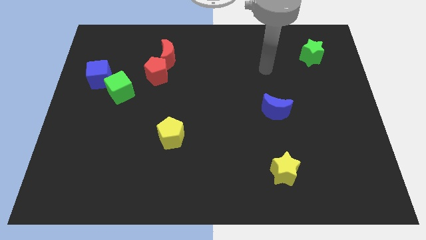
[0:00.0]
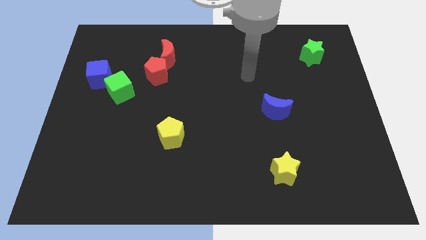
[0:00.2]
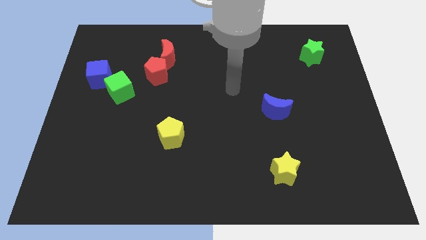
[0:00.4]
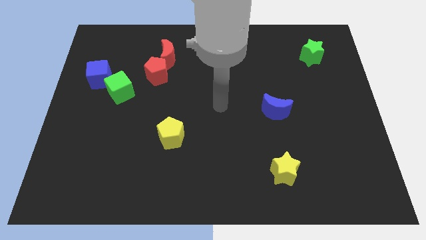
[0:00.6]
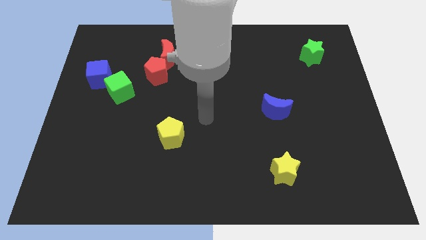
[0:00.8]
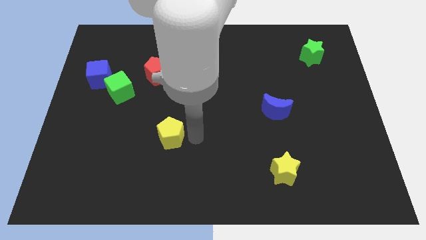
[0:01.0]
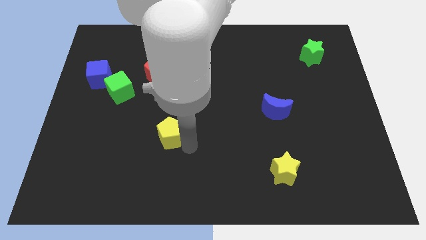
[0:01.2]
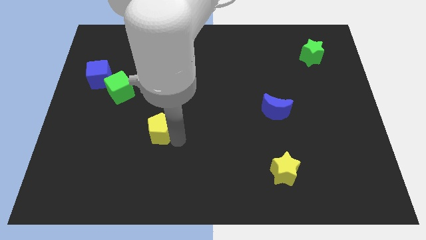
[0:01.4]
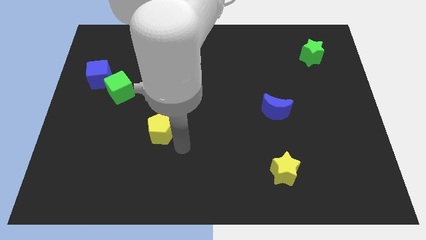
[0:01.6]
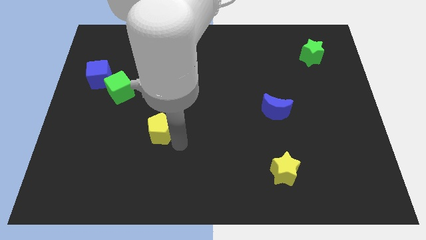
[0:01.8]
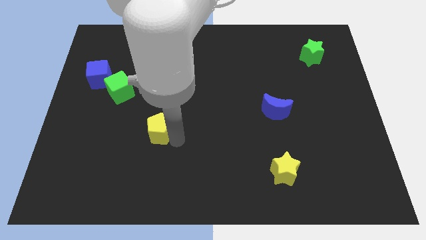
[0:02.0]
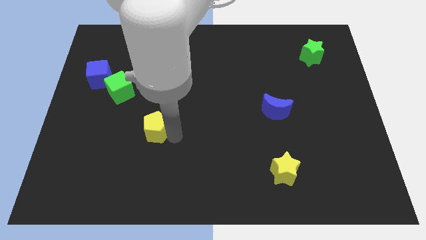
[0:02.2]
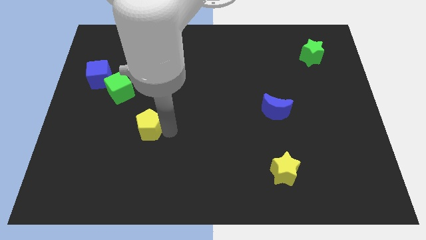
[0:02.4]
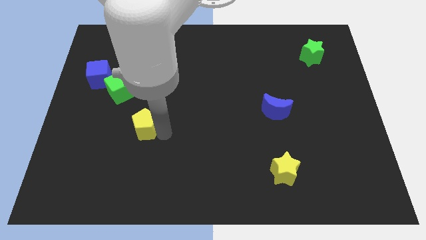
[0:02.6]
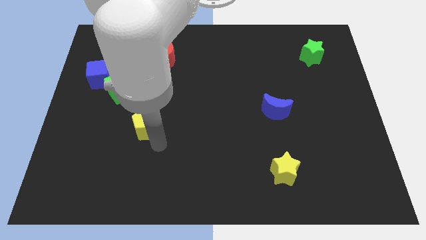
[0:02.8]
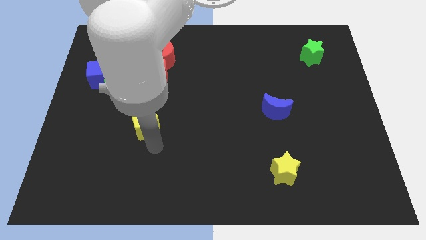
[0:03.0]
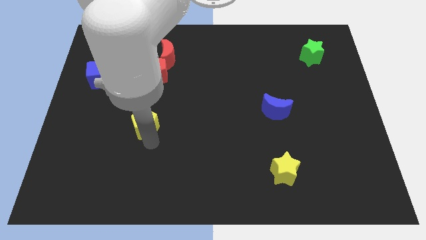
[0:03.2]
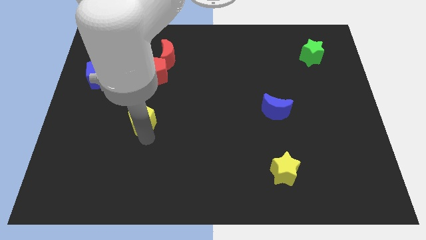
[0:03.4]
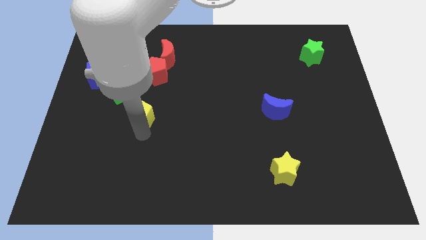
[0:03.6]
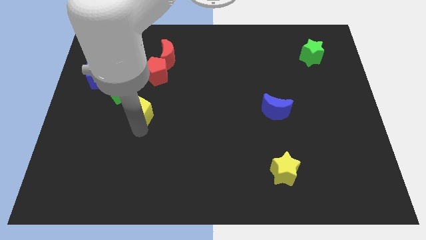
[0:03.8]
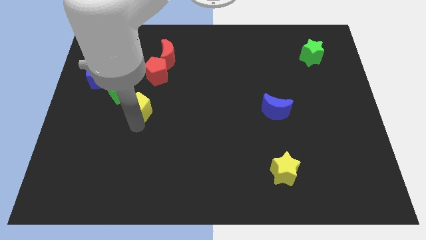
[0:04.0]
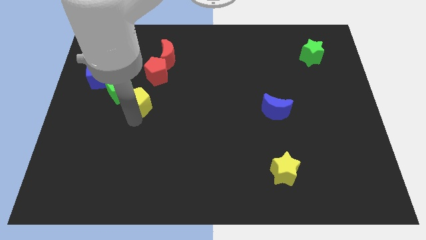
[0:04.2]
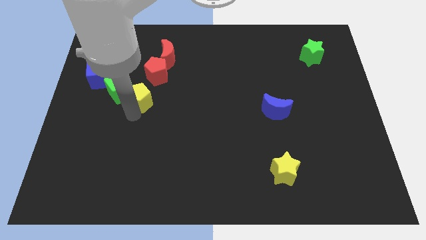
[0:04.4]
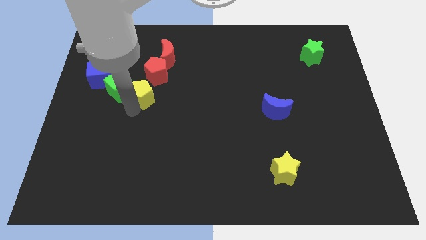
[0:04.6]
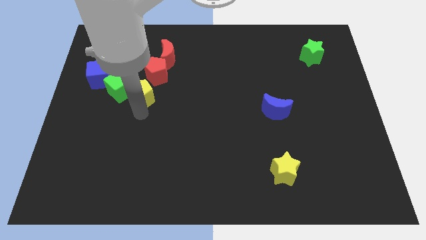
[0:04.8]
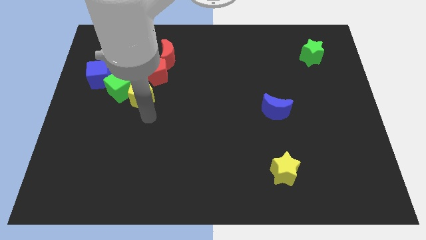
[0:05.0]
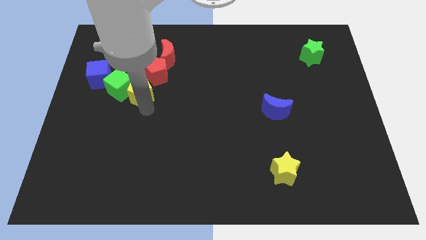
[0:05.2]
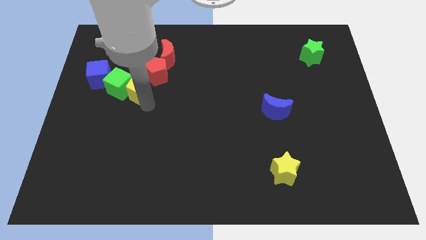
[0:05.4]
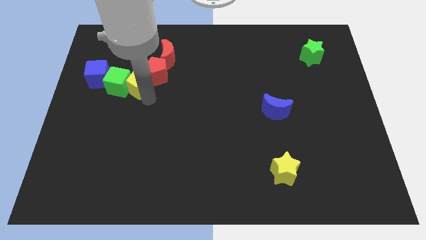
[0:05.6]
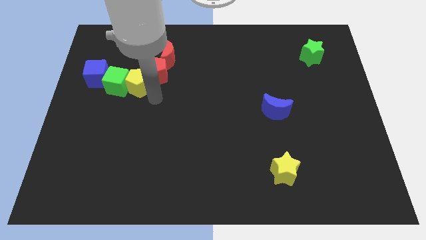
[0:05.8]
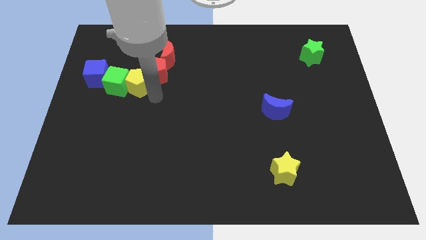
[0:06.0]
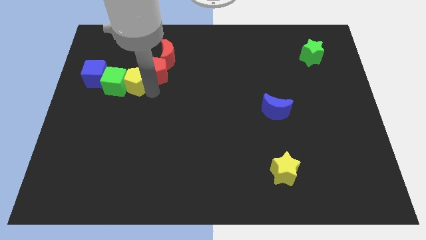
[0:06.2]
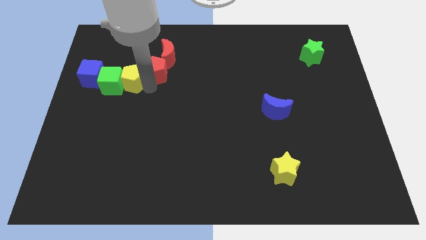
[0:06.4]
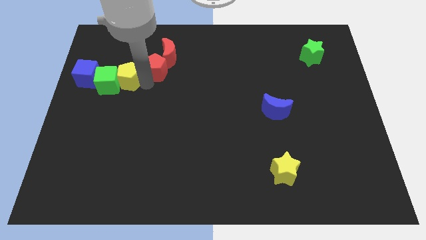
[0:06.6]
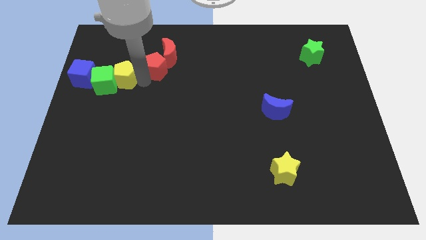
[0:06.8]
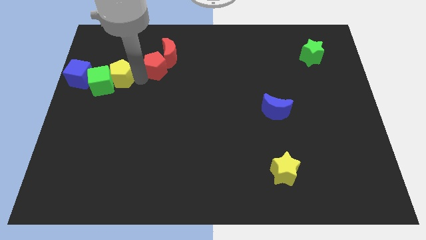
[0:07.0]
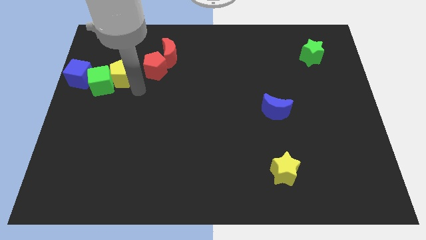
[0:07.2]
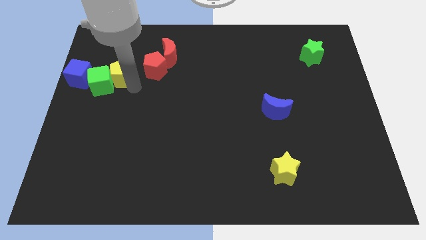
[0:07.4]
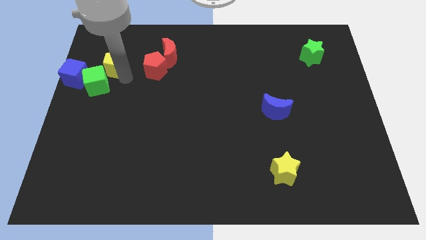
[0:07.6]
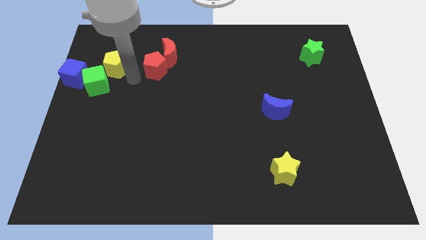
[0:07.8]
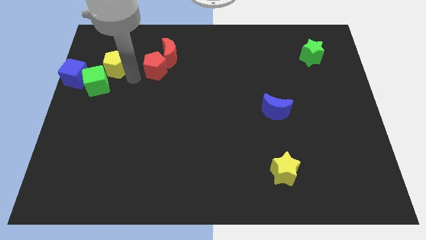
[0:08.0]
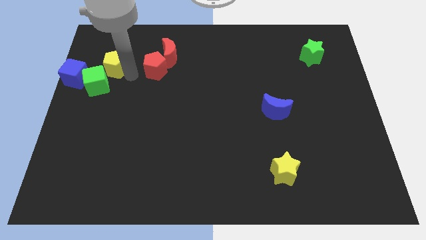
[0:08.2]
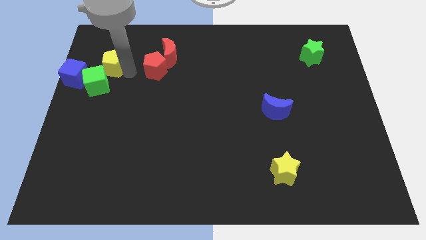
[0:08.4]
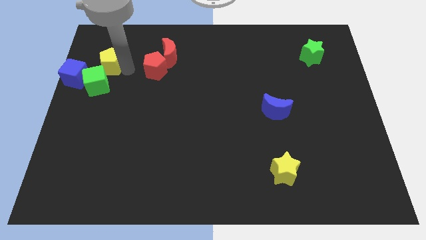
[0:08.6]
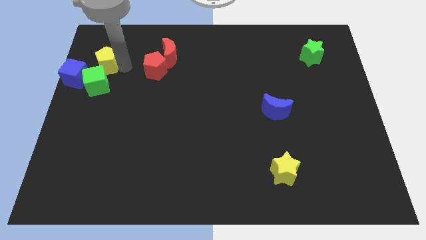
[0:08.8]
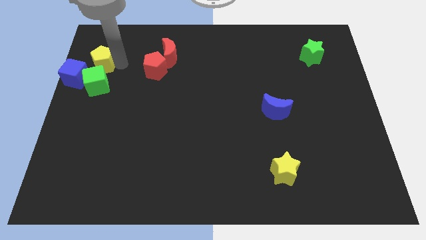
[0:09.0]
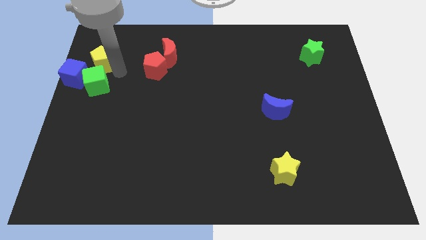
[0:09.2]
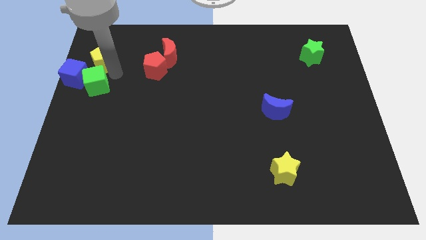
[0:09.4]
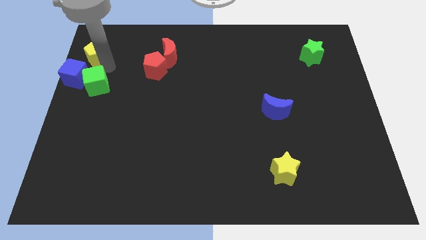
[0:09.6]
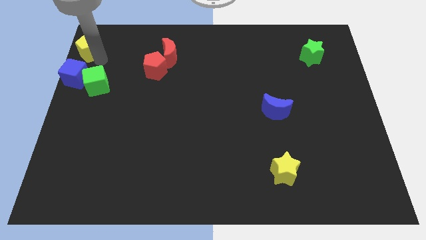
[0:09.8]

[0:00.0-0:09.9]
move the yellow pentagon to the top left of the board

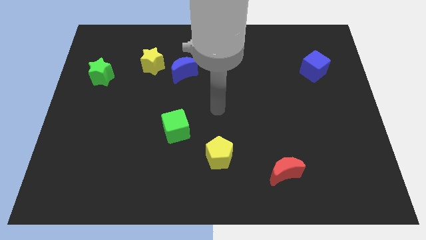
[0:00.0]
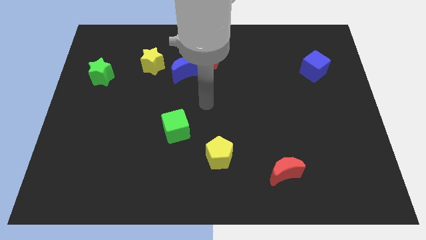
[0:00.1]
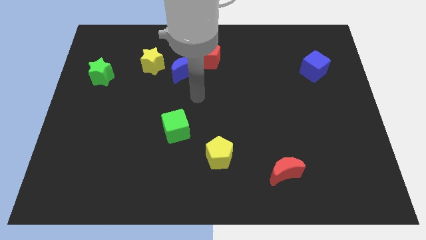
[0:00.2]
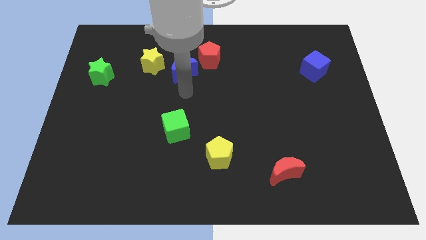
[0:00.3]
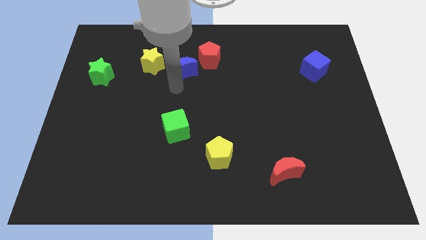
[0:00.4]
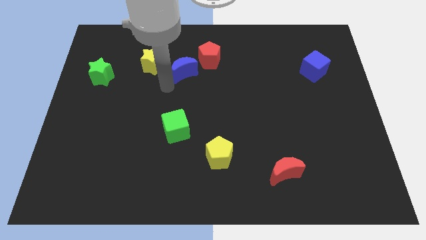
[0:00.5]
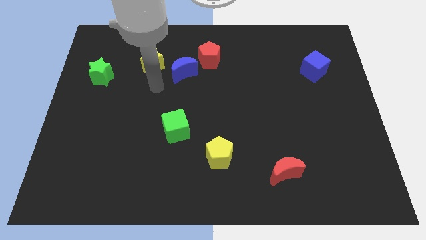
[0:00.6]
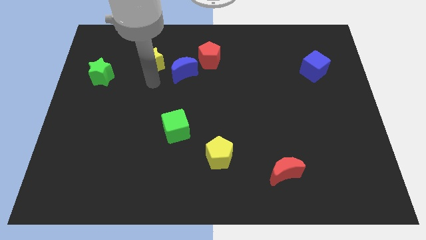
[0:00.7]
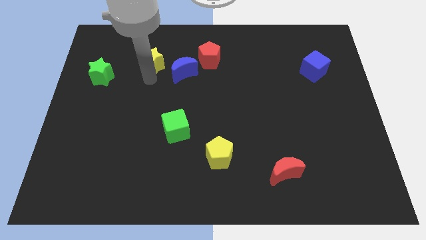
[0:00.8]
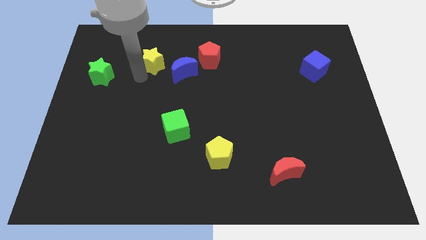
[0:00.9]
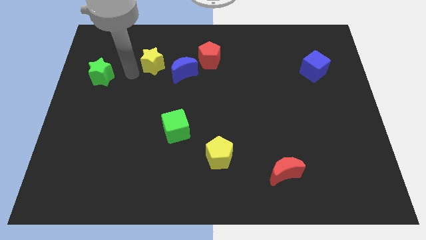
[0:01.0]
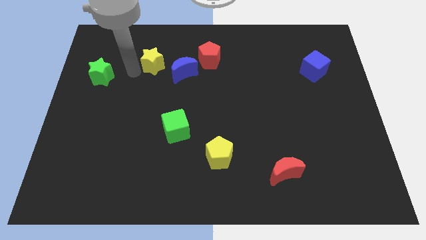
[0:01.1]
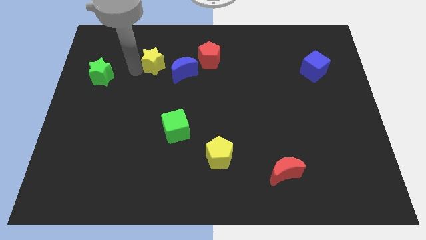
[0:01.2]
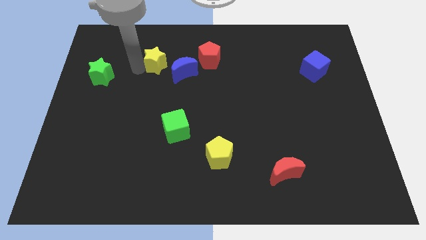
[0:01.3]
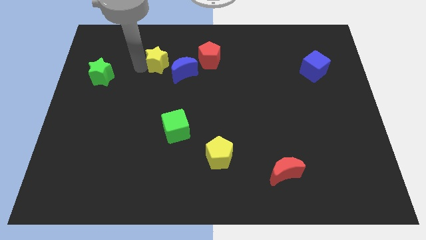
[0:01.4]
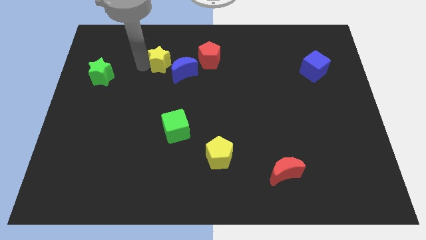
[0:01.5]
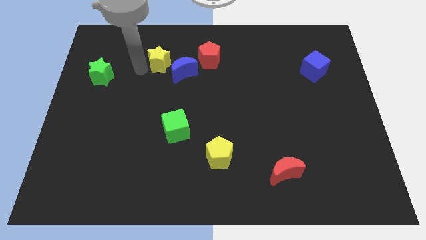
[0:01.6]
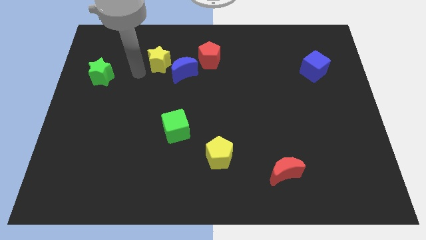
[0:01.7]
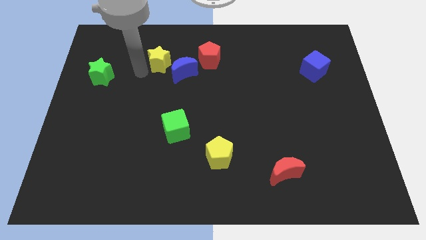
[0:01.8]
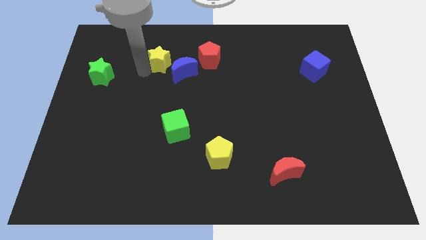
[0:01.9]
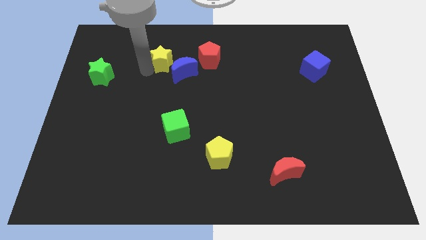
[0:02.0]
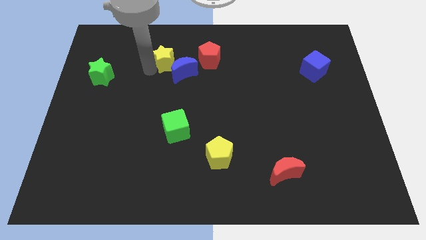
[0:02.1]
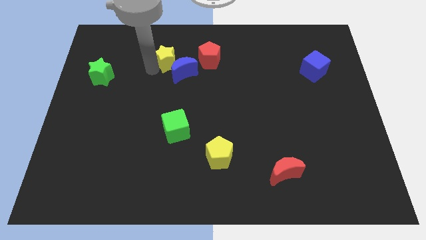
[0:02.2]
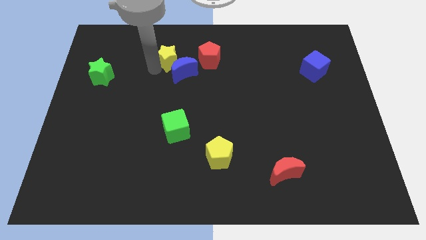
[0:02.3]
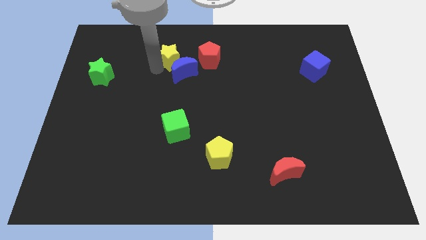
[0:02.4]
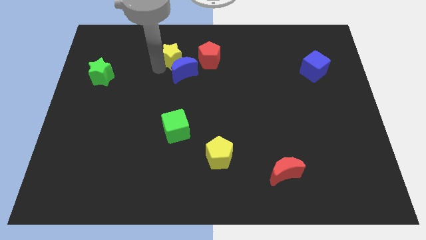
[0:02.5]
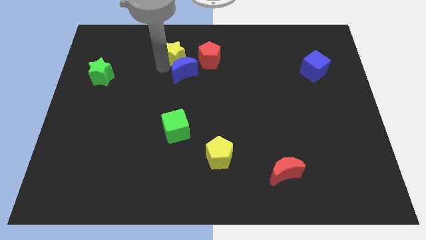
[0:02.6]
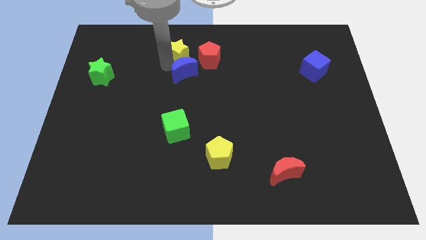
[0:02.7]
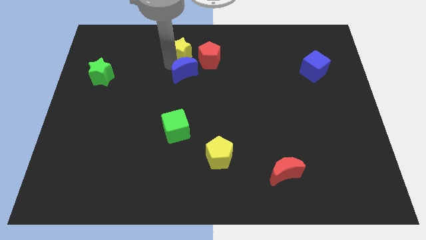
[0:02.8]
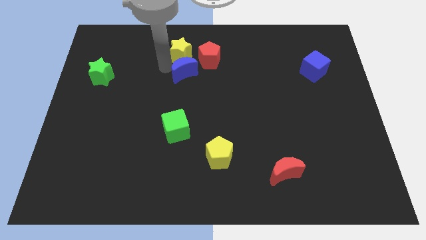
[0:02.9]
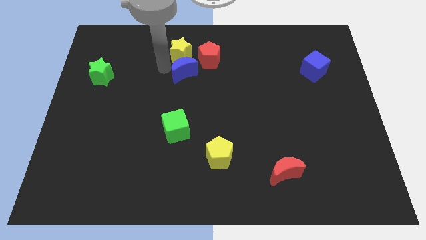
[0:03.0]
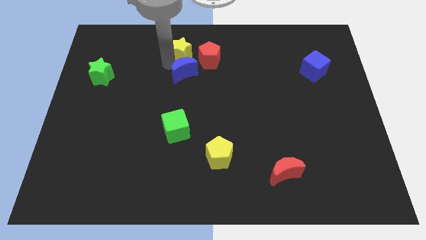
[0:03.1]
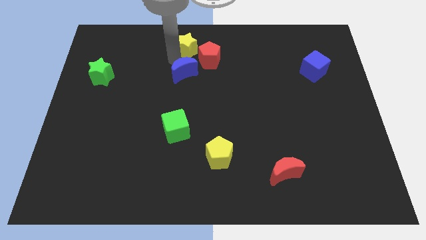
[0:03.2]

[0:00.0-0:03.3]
put the yellow star to the top side
